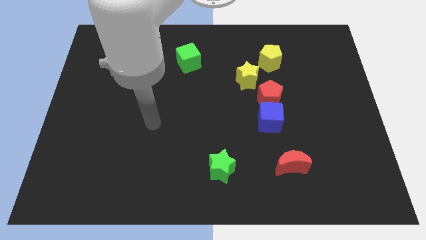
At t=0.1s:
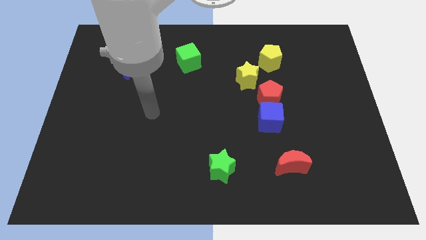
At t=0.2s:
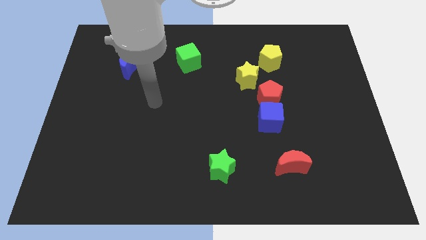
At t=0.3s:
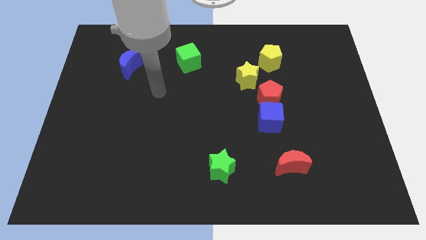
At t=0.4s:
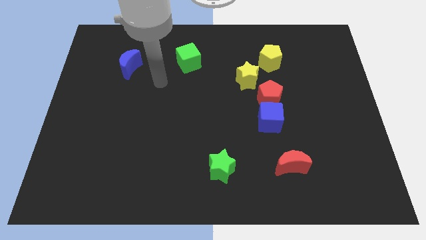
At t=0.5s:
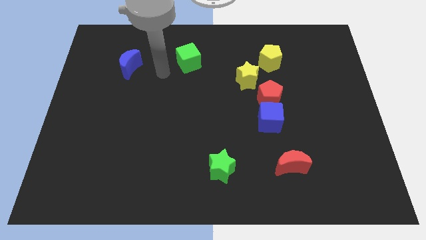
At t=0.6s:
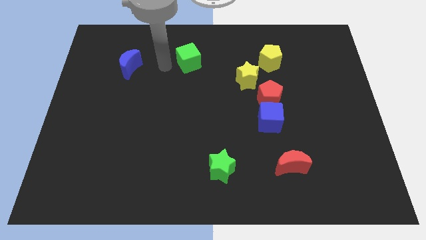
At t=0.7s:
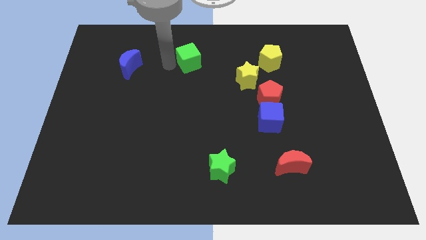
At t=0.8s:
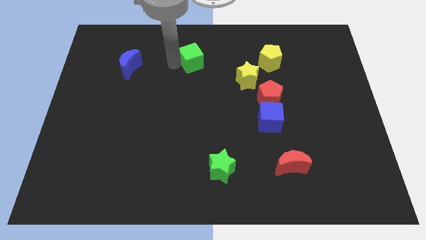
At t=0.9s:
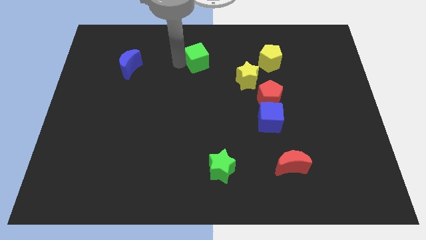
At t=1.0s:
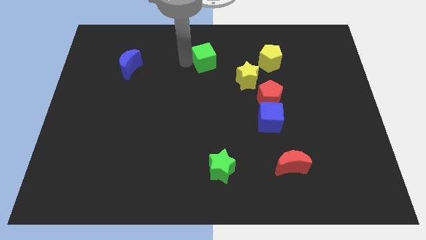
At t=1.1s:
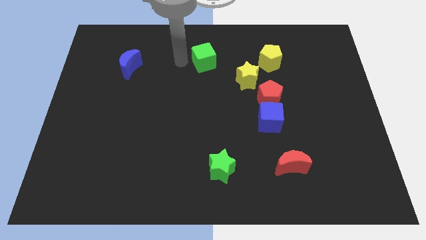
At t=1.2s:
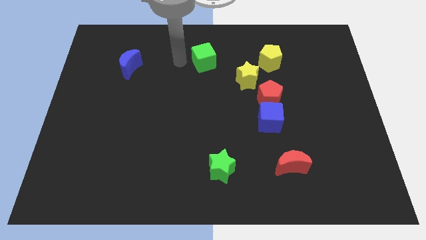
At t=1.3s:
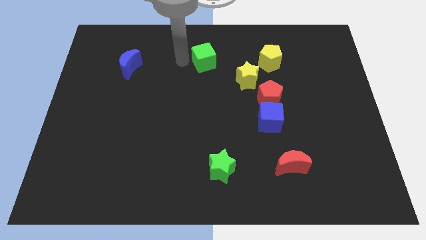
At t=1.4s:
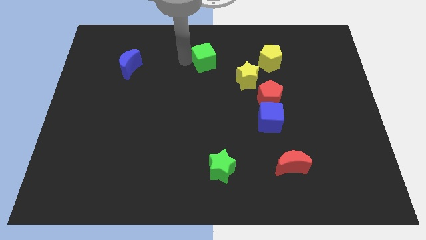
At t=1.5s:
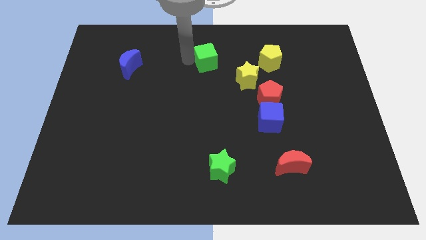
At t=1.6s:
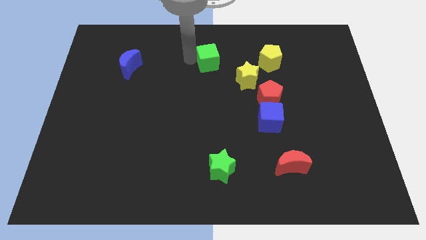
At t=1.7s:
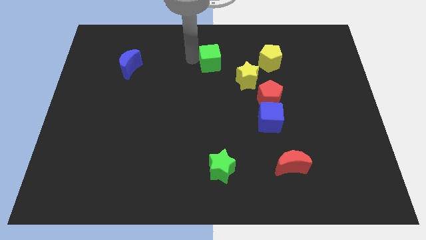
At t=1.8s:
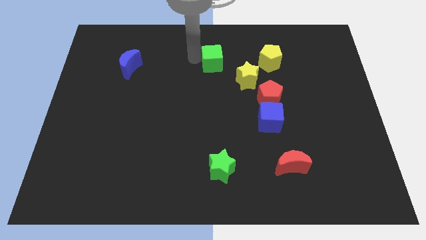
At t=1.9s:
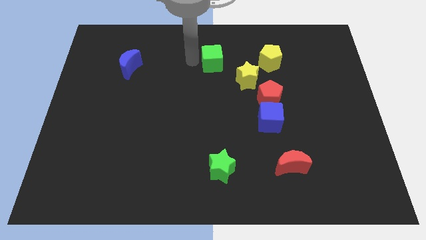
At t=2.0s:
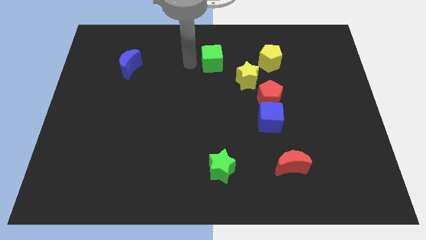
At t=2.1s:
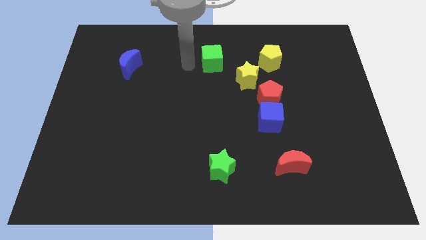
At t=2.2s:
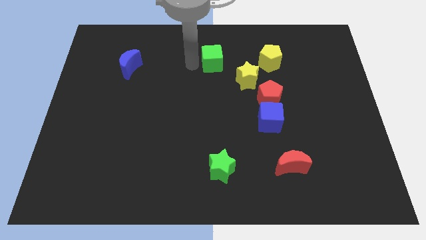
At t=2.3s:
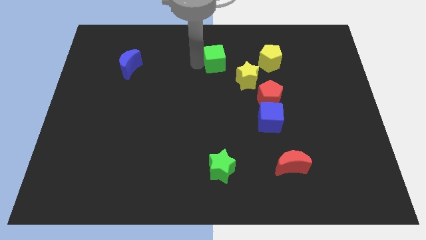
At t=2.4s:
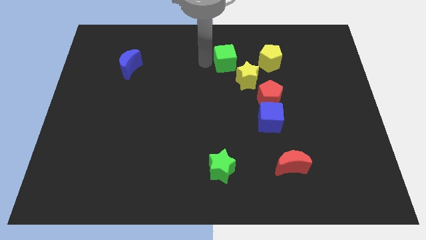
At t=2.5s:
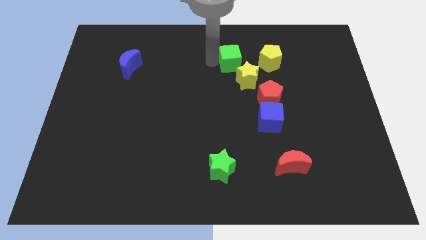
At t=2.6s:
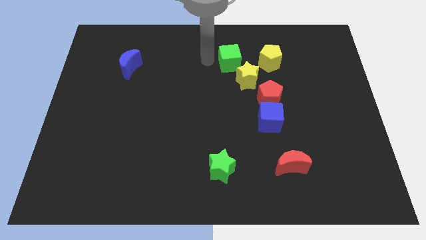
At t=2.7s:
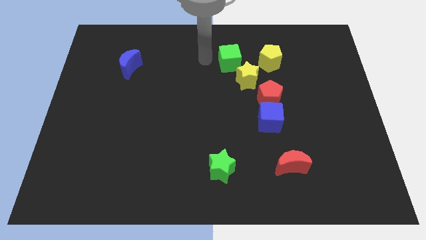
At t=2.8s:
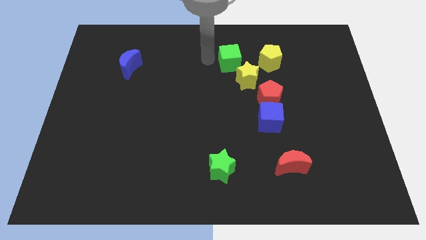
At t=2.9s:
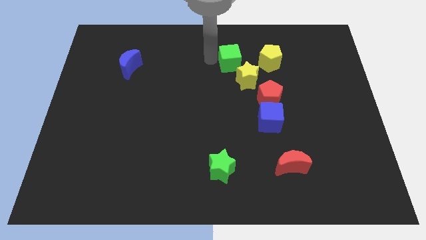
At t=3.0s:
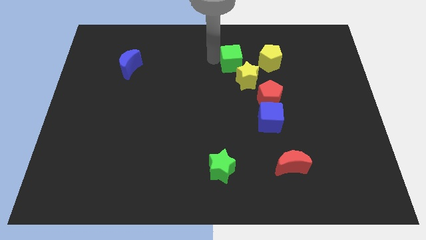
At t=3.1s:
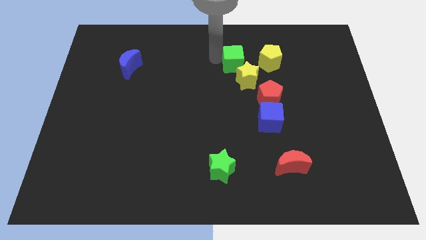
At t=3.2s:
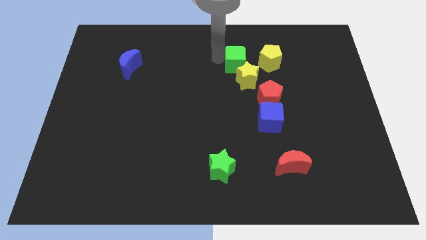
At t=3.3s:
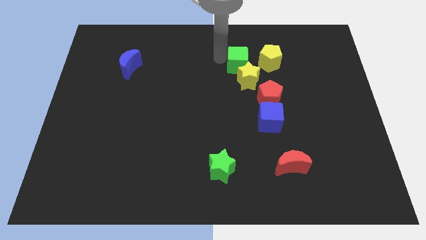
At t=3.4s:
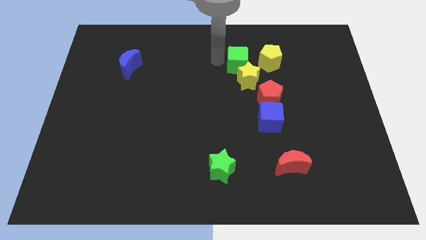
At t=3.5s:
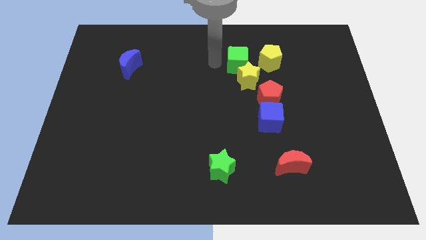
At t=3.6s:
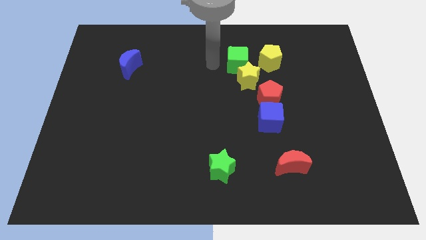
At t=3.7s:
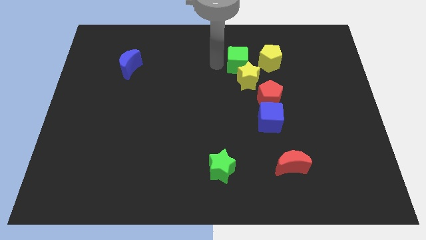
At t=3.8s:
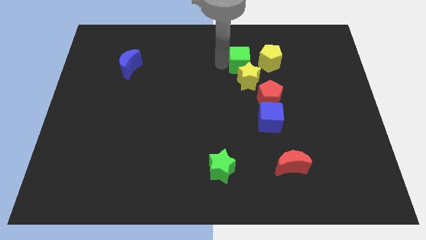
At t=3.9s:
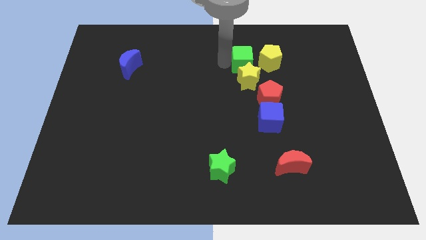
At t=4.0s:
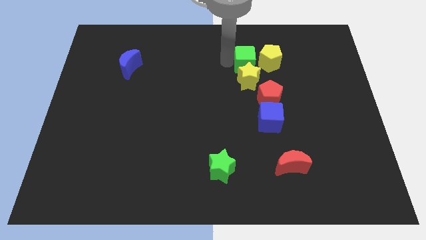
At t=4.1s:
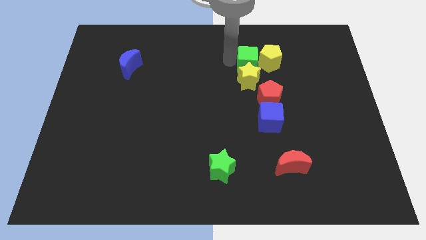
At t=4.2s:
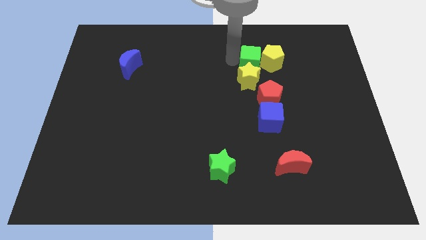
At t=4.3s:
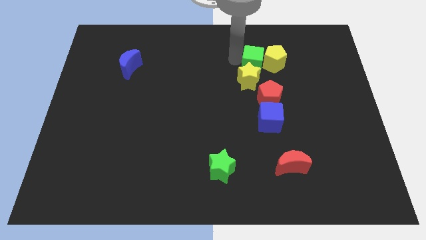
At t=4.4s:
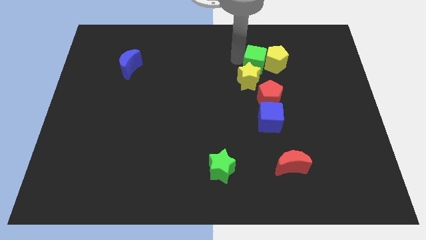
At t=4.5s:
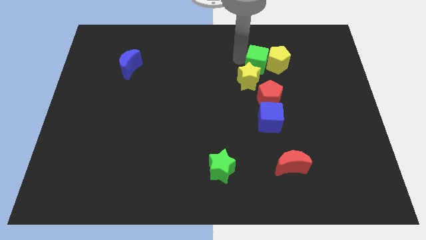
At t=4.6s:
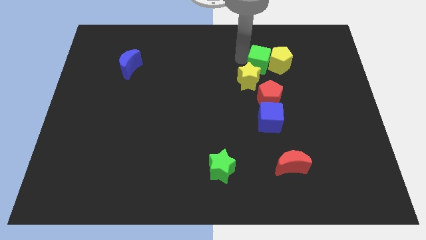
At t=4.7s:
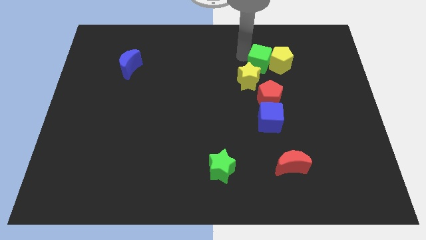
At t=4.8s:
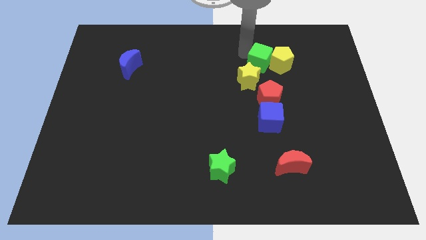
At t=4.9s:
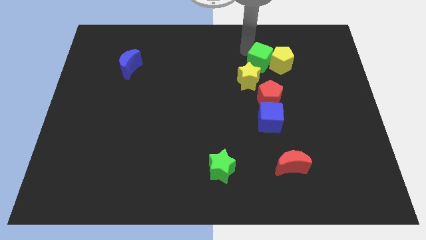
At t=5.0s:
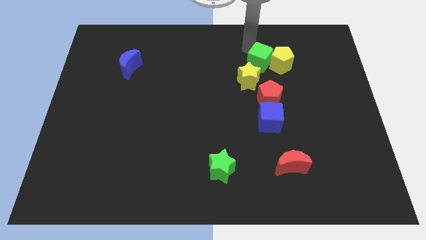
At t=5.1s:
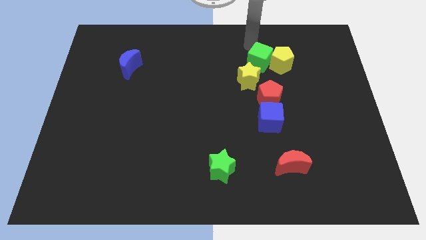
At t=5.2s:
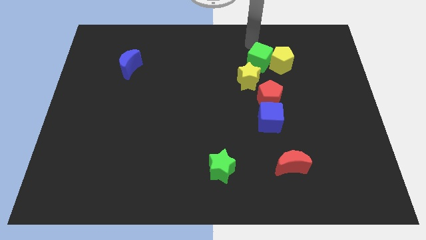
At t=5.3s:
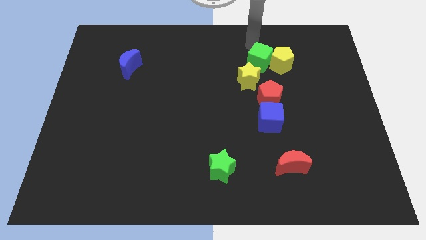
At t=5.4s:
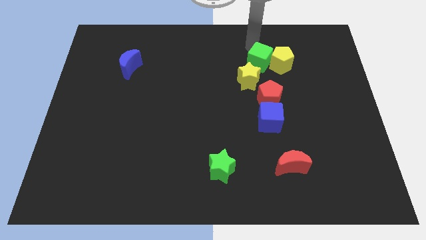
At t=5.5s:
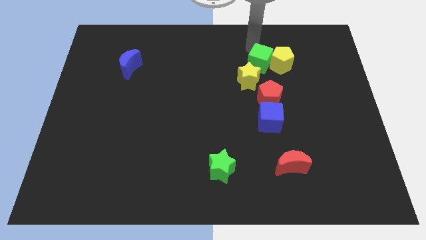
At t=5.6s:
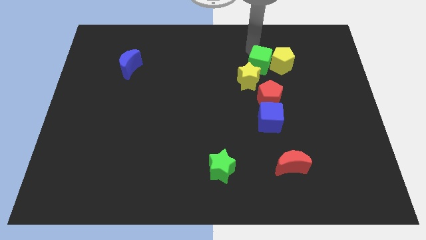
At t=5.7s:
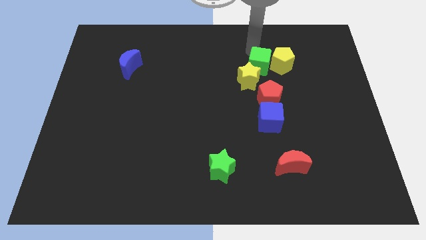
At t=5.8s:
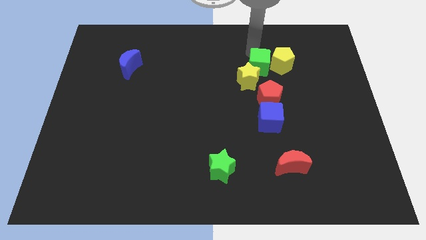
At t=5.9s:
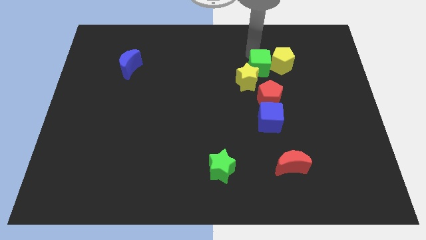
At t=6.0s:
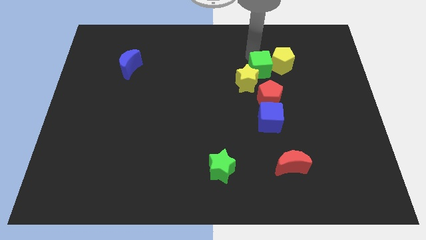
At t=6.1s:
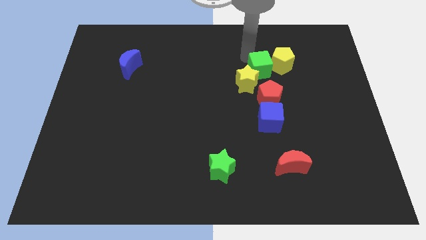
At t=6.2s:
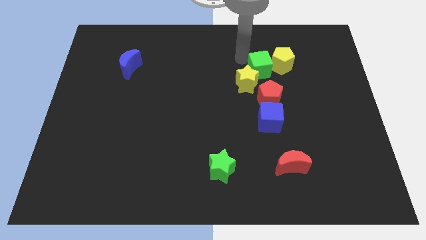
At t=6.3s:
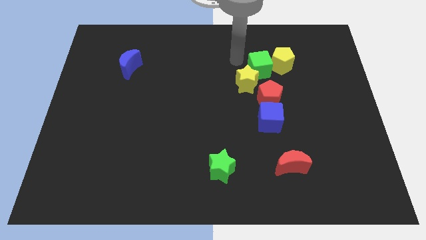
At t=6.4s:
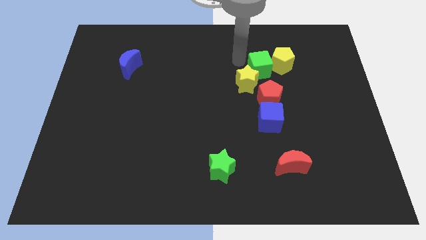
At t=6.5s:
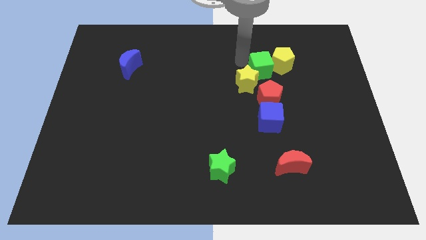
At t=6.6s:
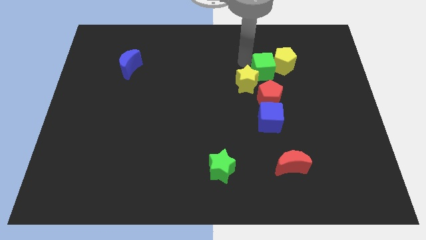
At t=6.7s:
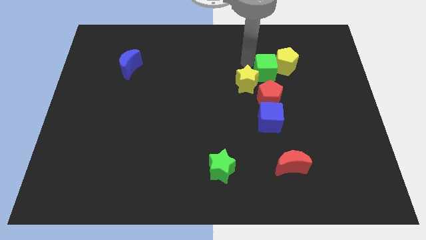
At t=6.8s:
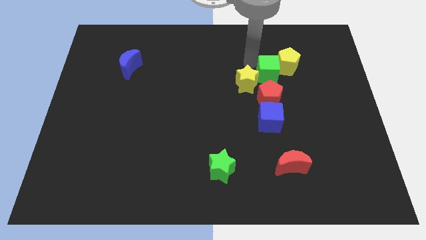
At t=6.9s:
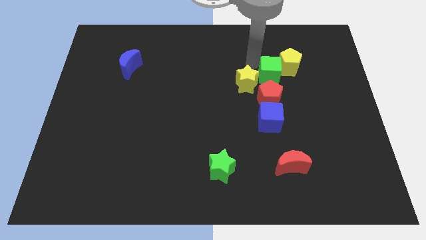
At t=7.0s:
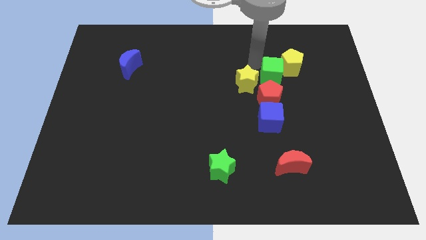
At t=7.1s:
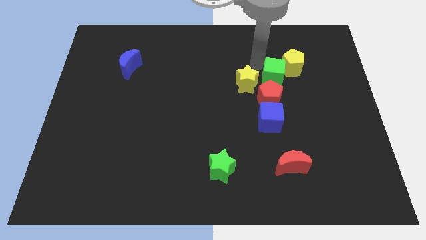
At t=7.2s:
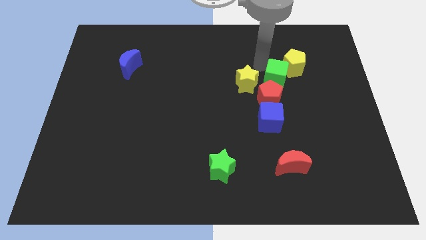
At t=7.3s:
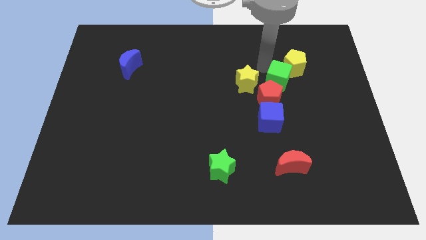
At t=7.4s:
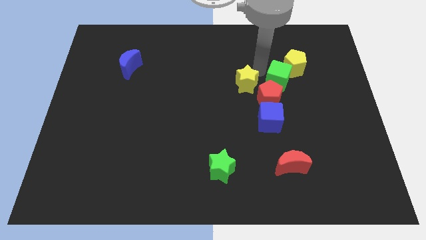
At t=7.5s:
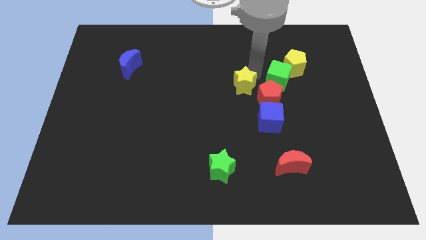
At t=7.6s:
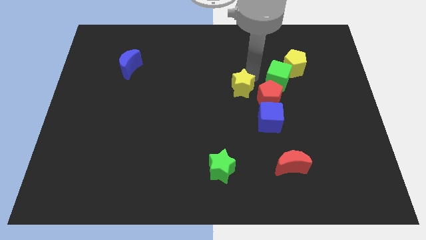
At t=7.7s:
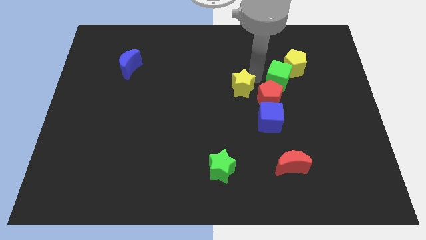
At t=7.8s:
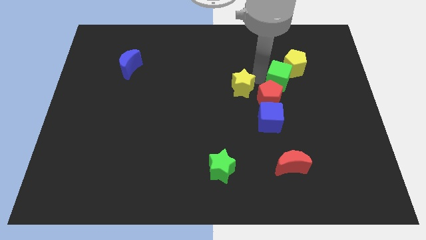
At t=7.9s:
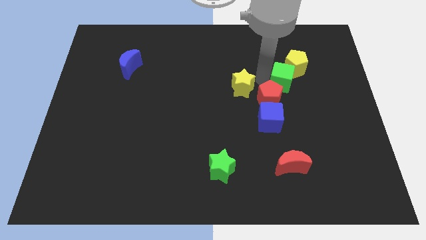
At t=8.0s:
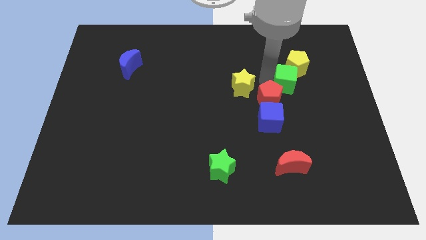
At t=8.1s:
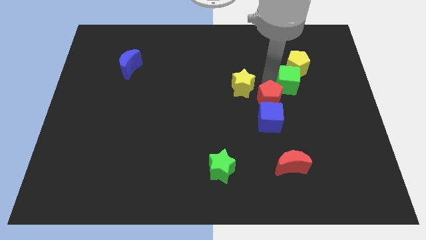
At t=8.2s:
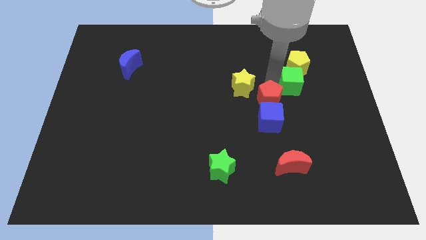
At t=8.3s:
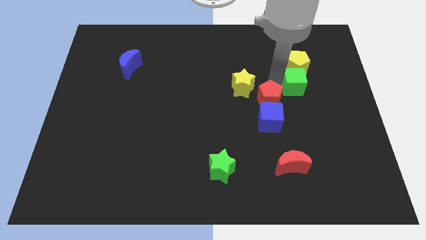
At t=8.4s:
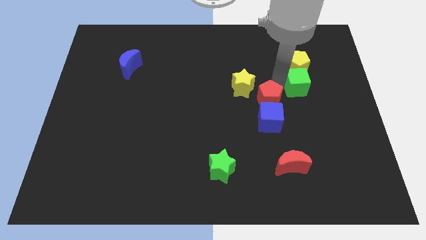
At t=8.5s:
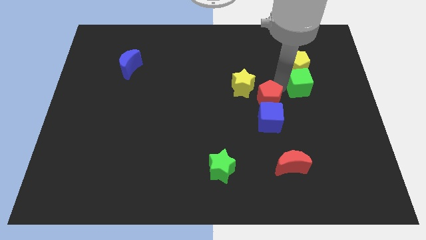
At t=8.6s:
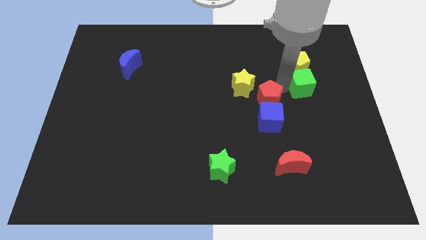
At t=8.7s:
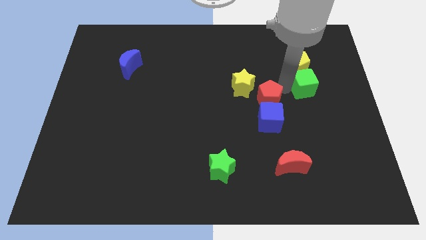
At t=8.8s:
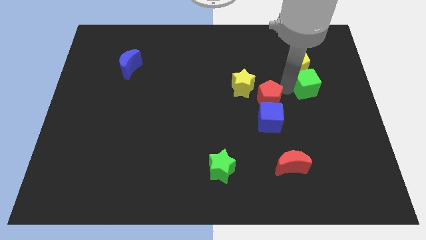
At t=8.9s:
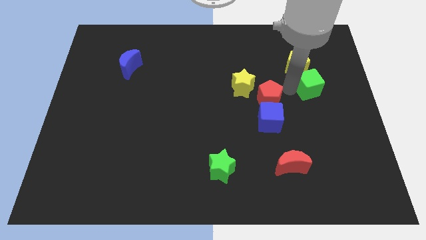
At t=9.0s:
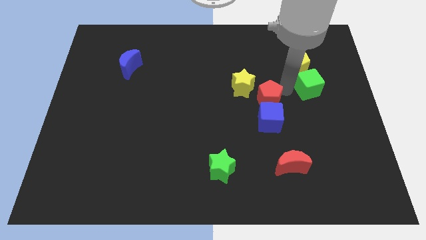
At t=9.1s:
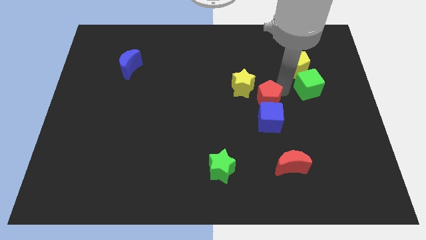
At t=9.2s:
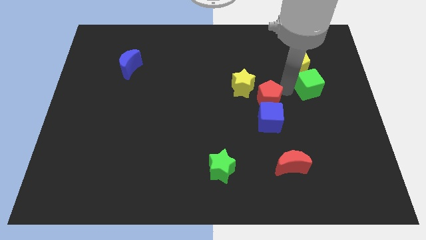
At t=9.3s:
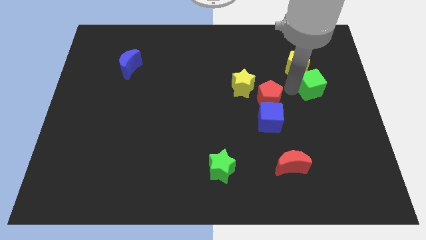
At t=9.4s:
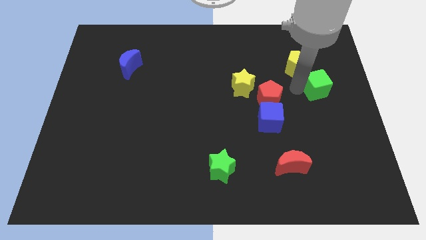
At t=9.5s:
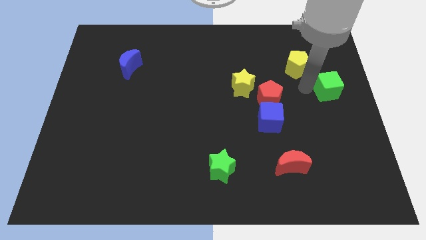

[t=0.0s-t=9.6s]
push the green cube to the center right
